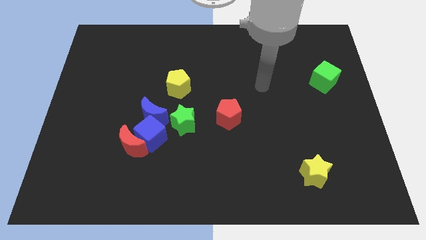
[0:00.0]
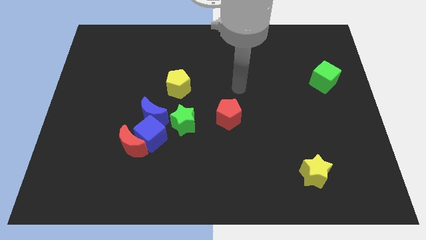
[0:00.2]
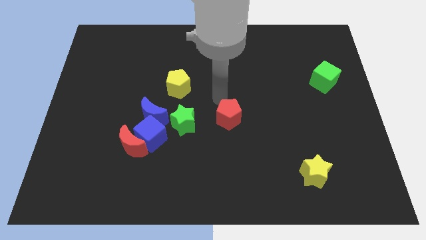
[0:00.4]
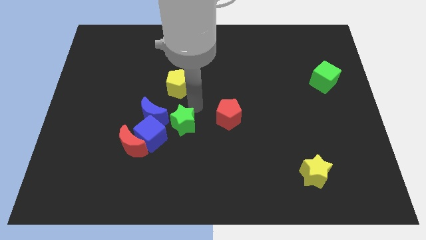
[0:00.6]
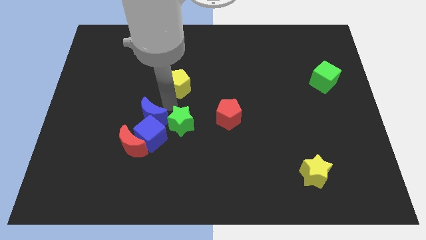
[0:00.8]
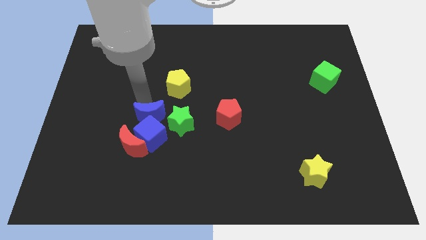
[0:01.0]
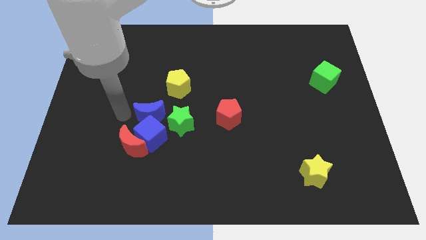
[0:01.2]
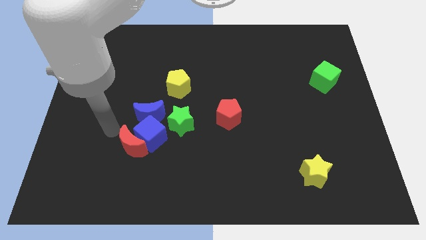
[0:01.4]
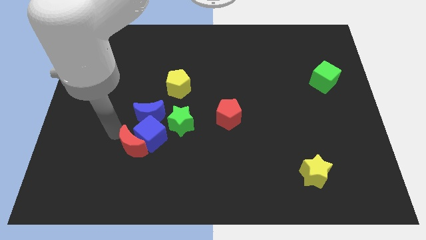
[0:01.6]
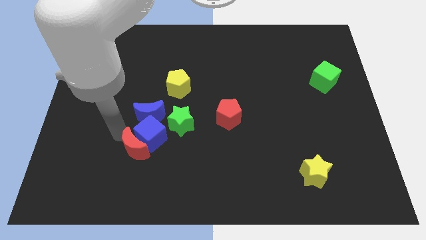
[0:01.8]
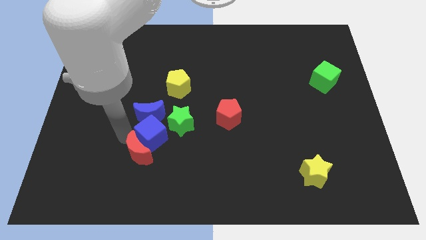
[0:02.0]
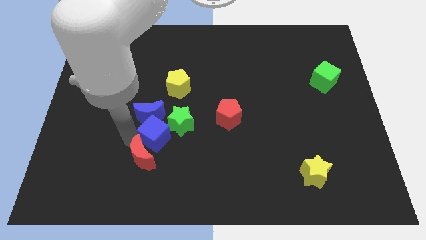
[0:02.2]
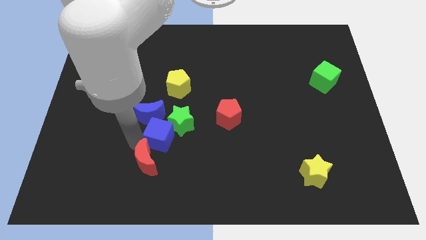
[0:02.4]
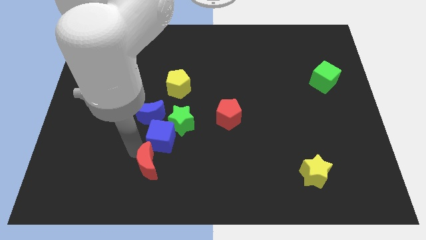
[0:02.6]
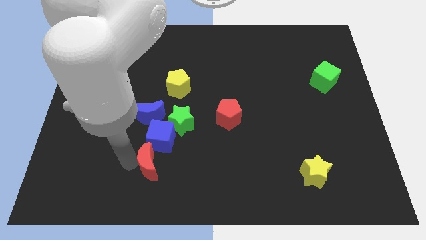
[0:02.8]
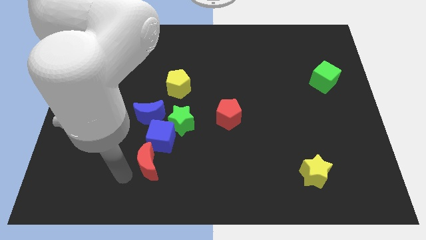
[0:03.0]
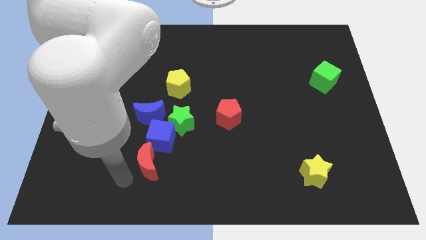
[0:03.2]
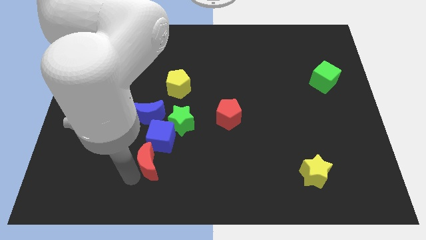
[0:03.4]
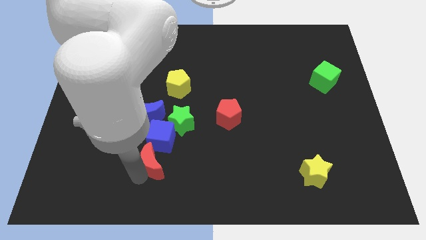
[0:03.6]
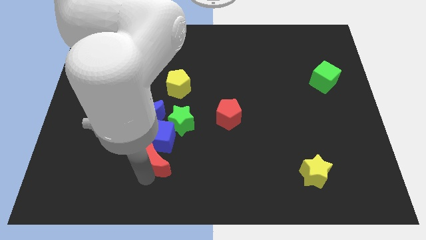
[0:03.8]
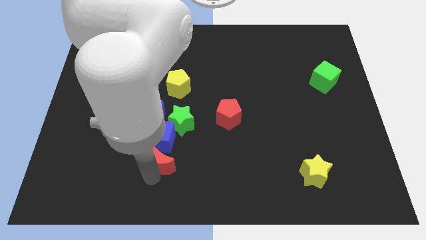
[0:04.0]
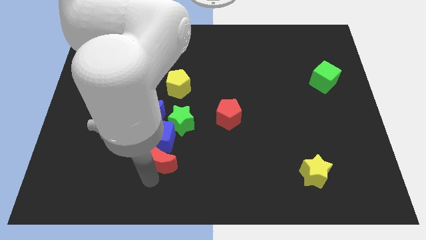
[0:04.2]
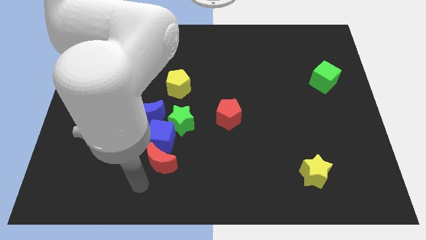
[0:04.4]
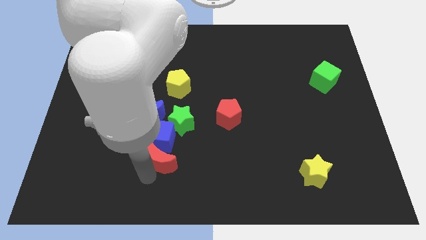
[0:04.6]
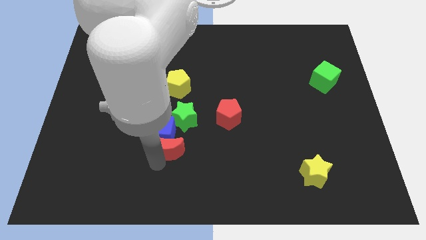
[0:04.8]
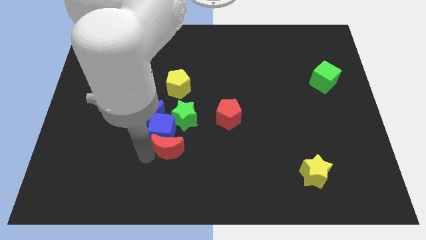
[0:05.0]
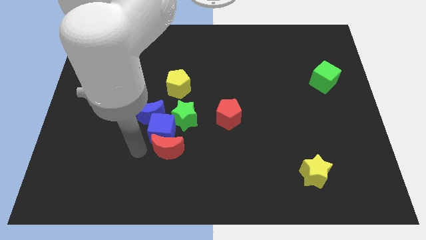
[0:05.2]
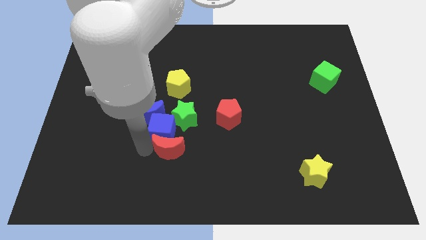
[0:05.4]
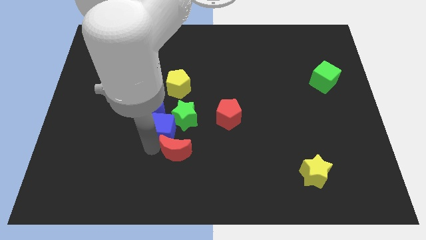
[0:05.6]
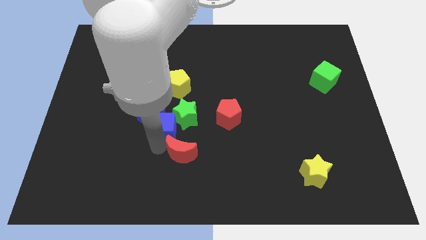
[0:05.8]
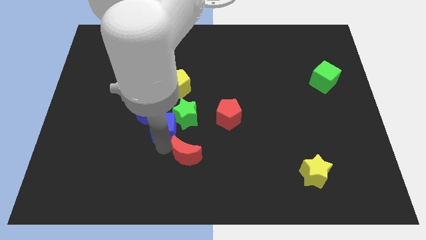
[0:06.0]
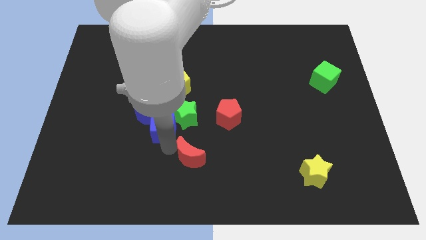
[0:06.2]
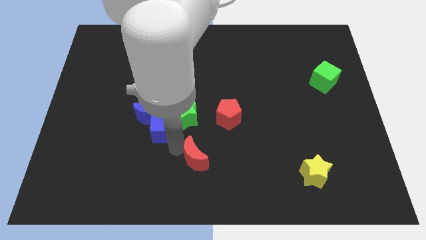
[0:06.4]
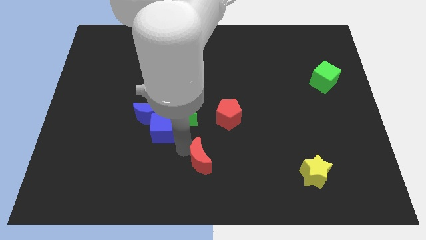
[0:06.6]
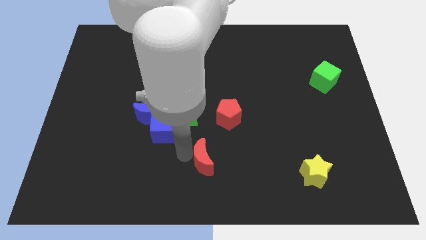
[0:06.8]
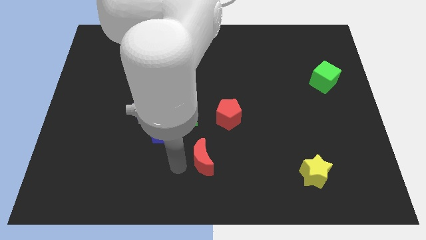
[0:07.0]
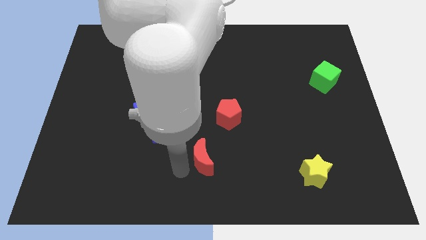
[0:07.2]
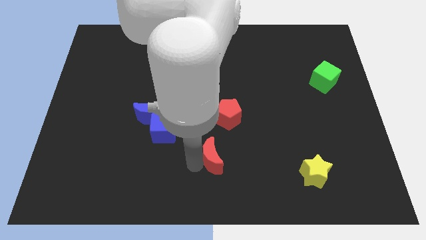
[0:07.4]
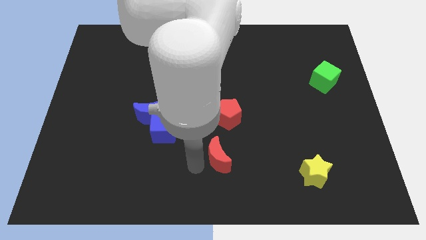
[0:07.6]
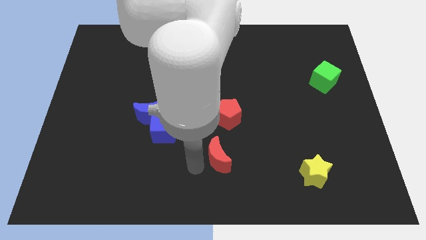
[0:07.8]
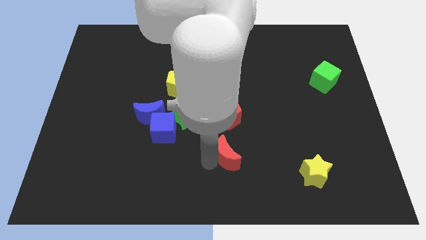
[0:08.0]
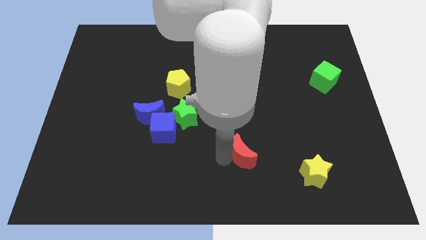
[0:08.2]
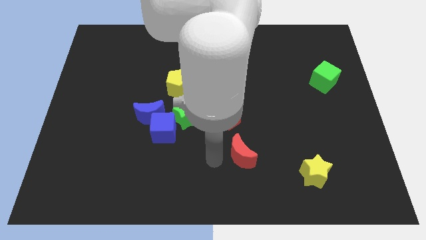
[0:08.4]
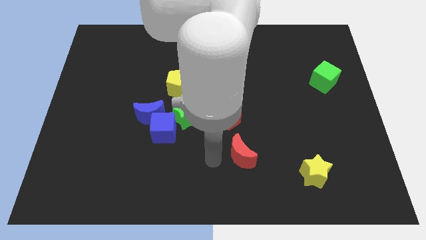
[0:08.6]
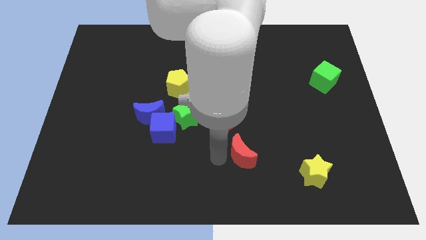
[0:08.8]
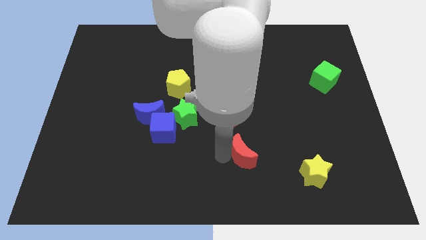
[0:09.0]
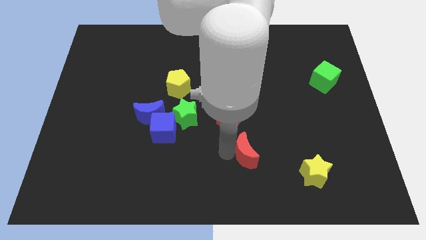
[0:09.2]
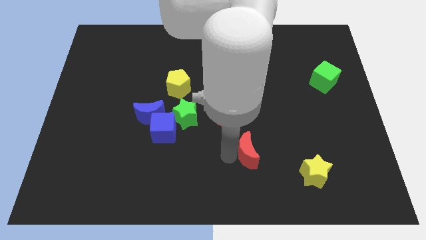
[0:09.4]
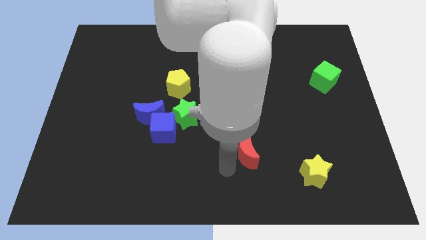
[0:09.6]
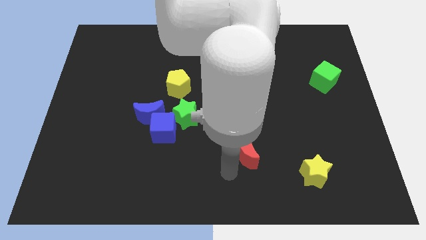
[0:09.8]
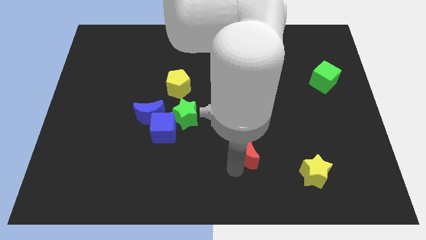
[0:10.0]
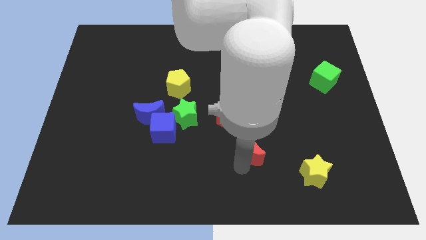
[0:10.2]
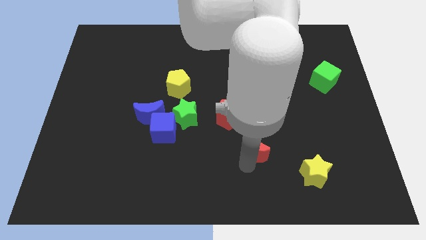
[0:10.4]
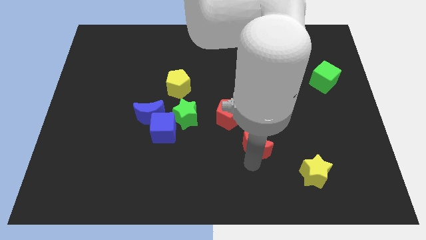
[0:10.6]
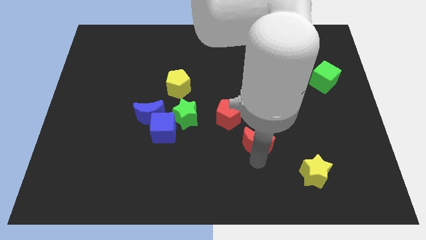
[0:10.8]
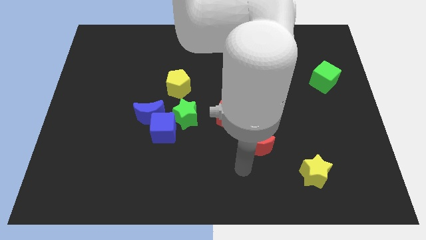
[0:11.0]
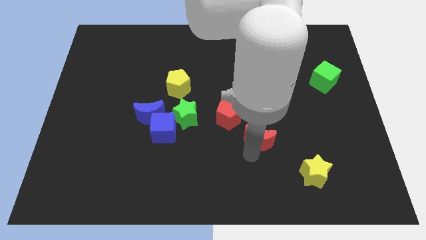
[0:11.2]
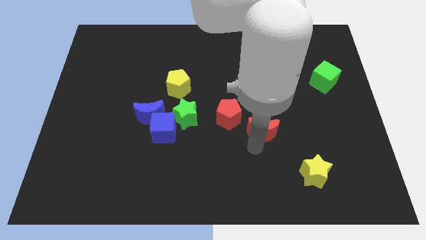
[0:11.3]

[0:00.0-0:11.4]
push the red moon to the right side of the red pentagon

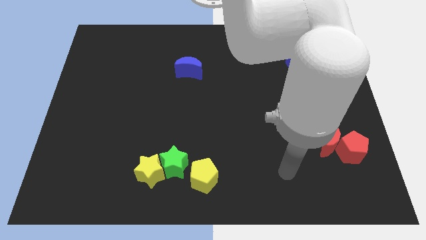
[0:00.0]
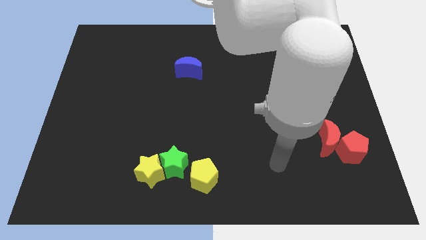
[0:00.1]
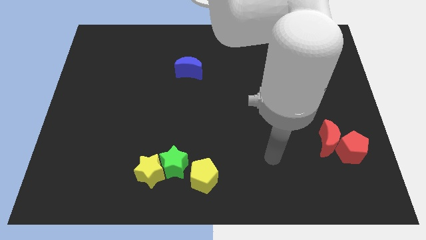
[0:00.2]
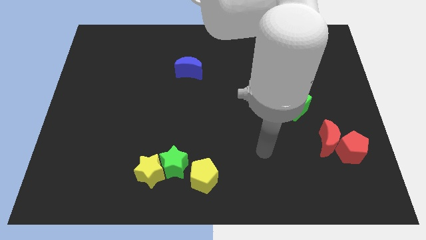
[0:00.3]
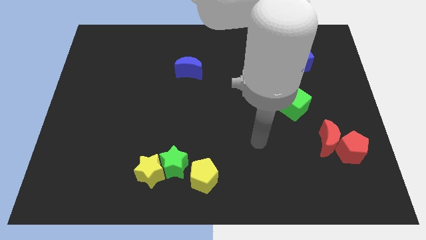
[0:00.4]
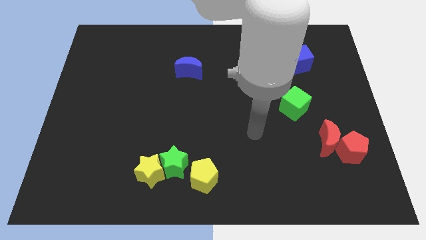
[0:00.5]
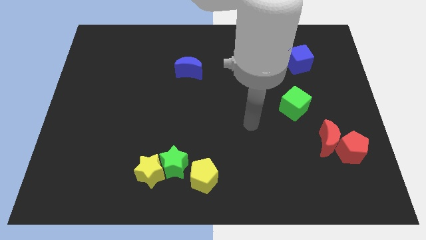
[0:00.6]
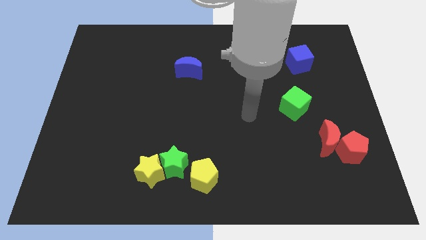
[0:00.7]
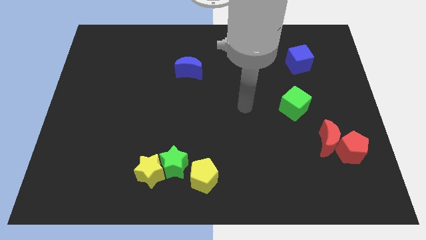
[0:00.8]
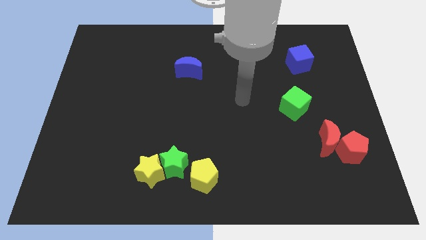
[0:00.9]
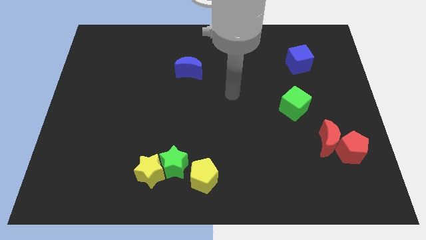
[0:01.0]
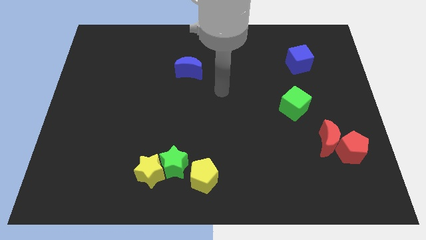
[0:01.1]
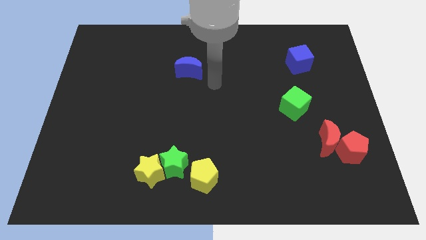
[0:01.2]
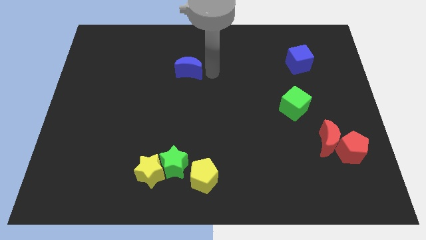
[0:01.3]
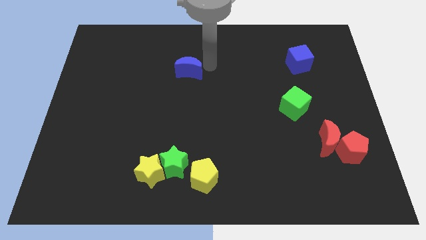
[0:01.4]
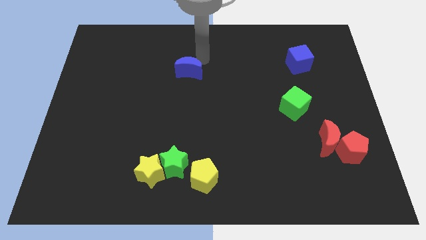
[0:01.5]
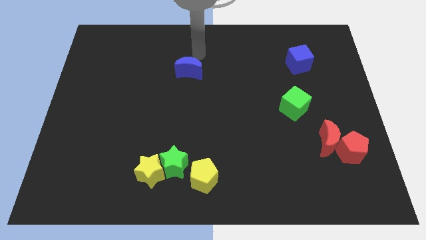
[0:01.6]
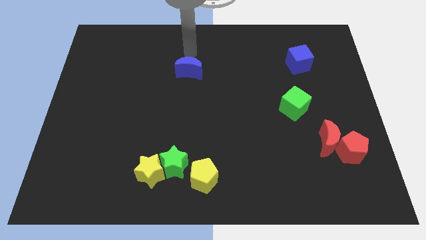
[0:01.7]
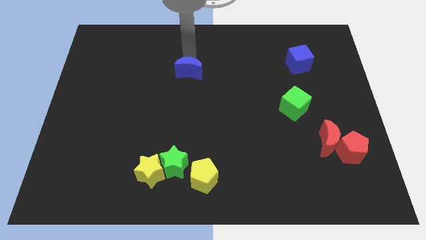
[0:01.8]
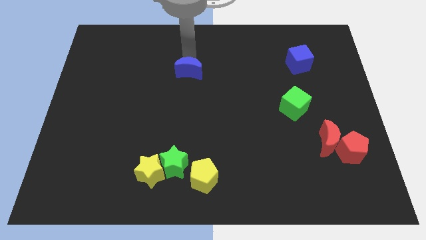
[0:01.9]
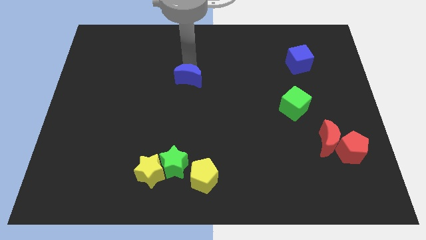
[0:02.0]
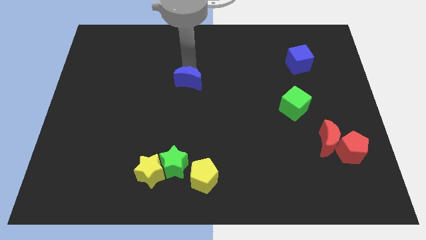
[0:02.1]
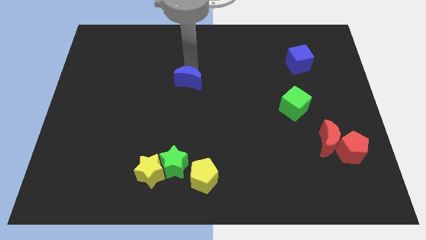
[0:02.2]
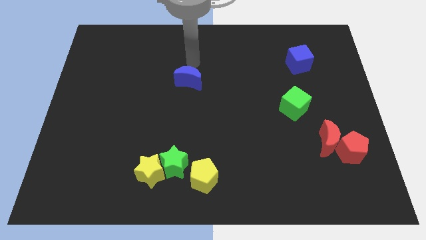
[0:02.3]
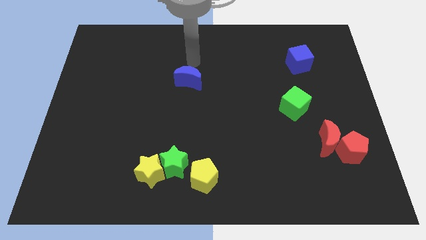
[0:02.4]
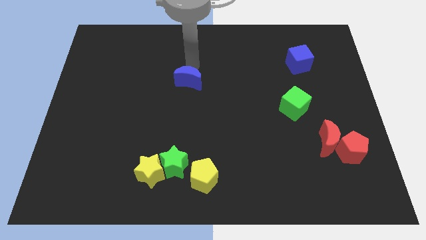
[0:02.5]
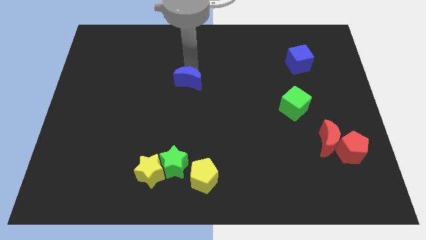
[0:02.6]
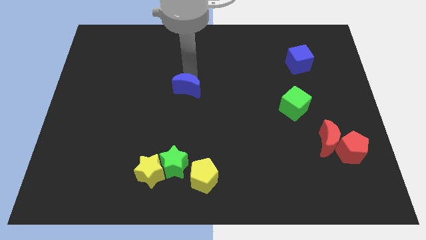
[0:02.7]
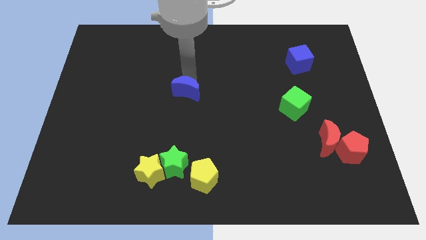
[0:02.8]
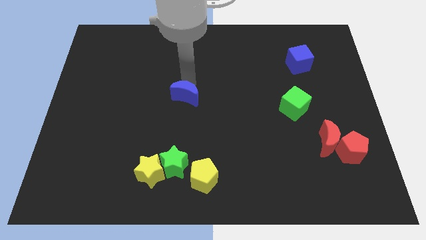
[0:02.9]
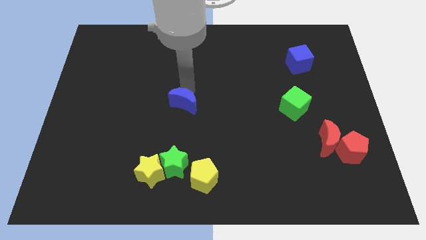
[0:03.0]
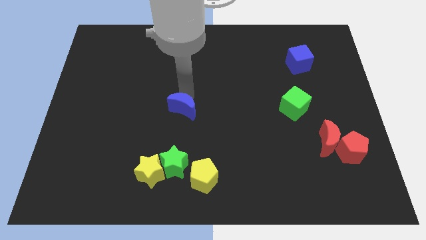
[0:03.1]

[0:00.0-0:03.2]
put the blue moon to the top side of the green star
